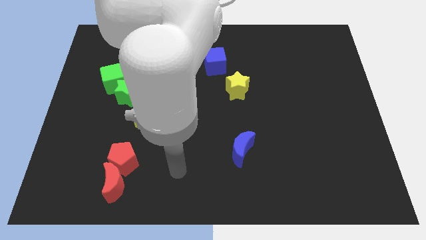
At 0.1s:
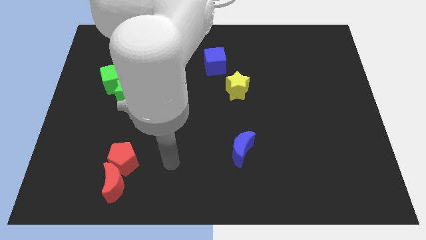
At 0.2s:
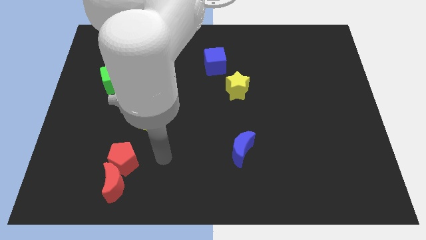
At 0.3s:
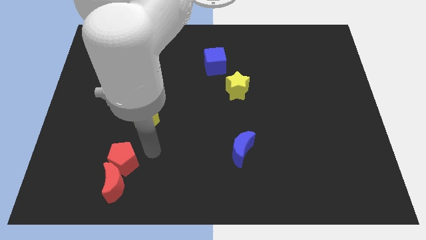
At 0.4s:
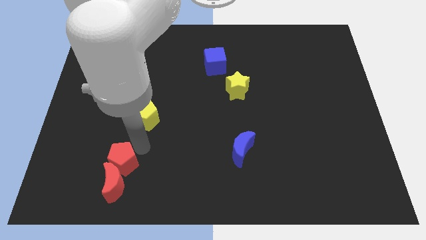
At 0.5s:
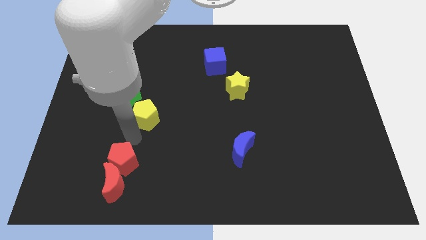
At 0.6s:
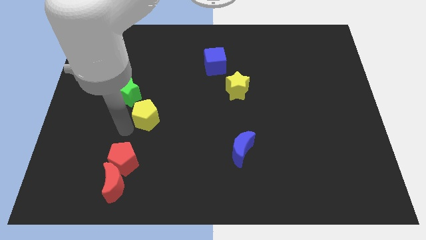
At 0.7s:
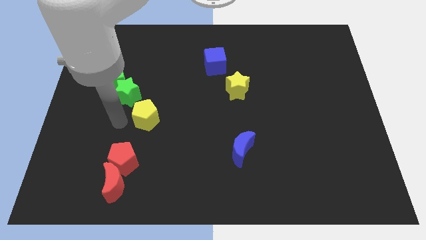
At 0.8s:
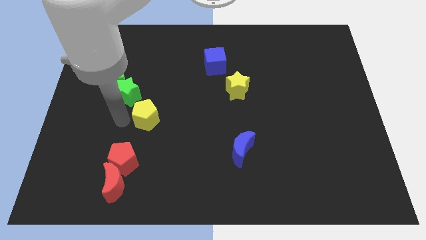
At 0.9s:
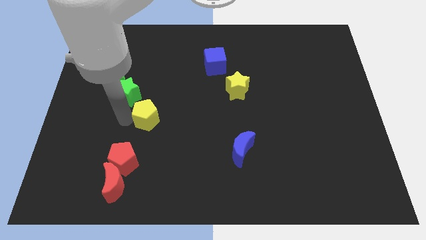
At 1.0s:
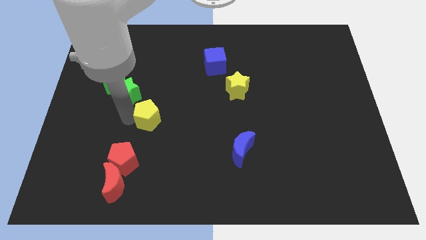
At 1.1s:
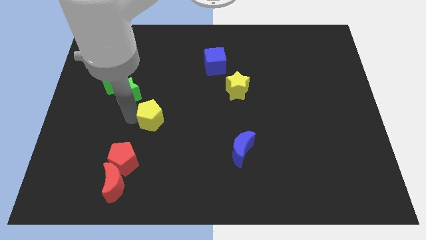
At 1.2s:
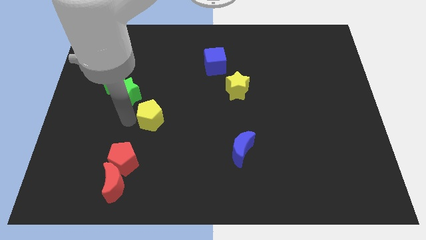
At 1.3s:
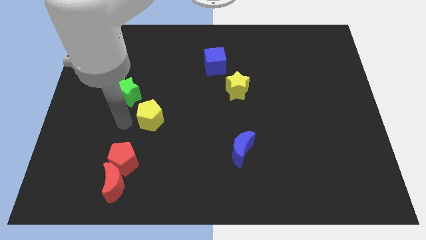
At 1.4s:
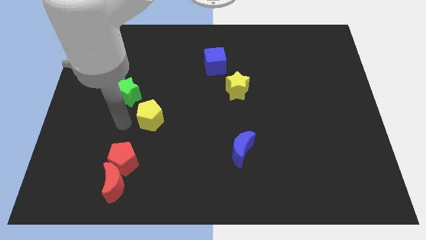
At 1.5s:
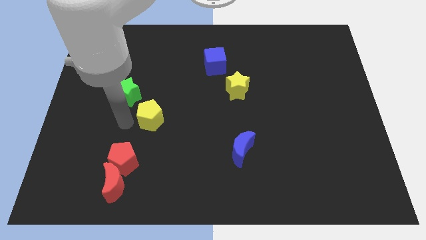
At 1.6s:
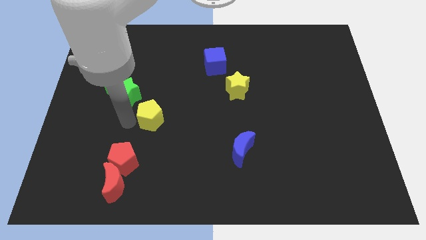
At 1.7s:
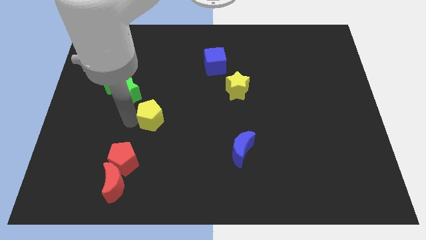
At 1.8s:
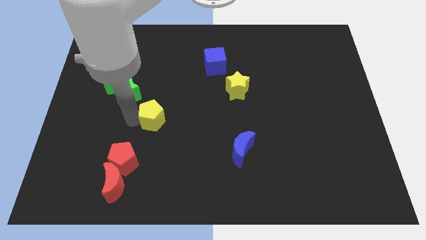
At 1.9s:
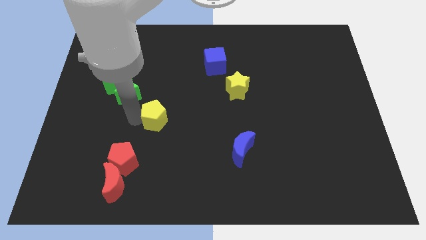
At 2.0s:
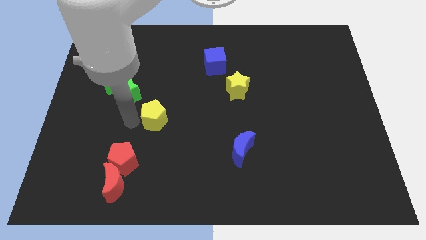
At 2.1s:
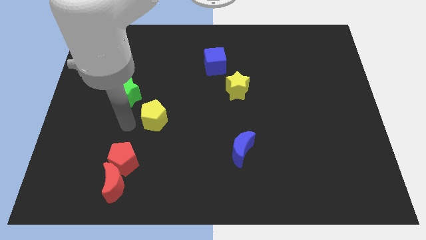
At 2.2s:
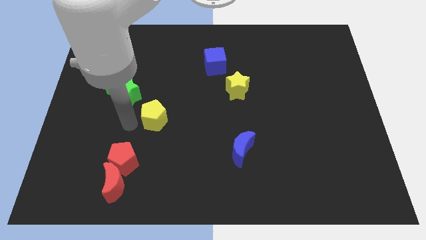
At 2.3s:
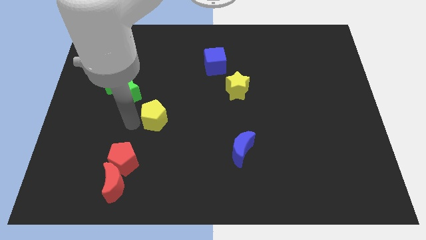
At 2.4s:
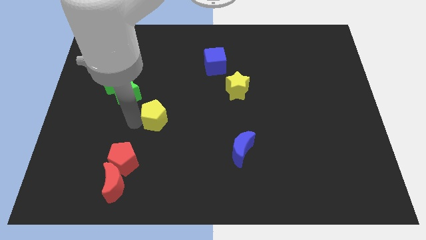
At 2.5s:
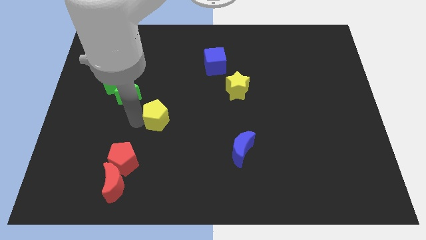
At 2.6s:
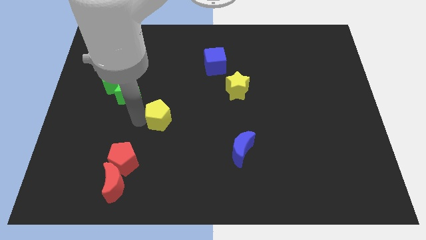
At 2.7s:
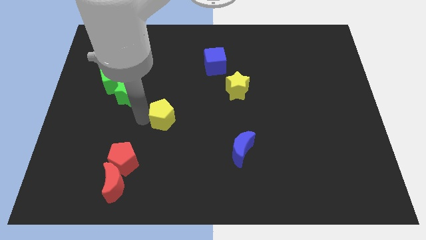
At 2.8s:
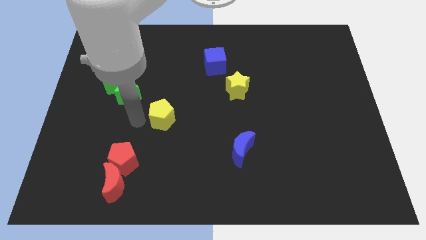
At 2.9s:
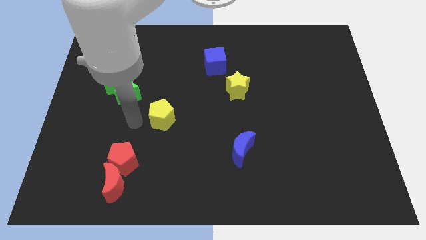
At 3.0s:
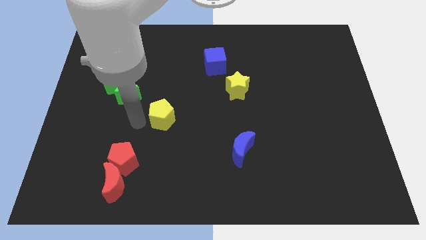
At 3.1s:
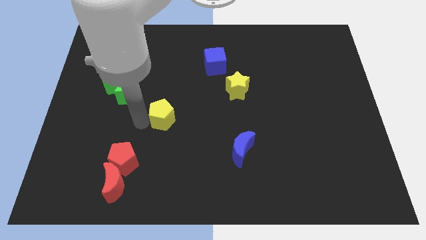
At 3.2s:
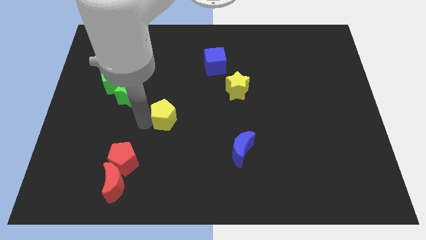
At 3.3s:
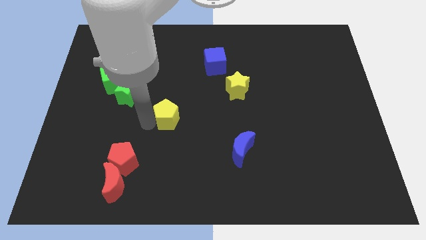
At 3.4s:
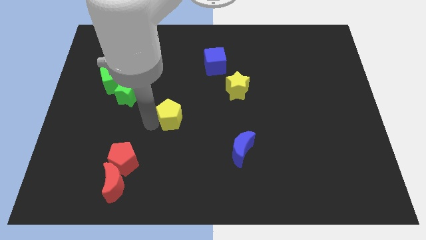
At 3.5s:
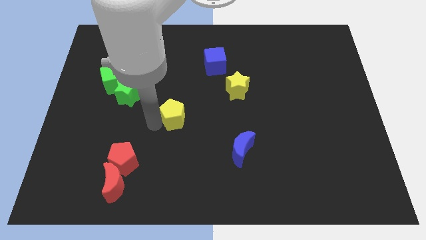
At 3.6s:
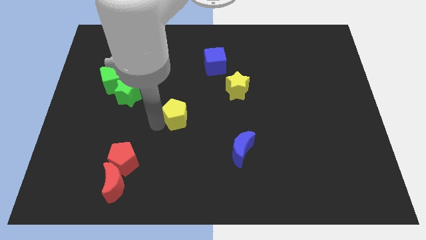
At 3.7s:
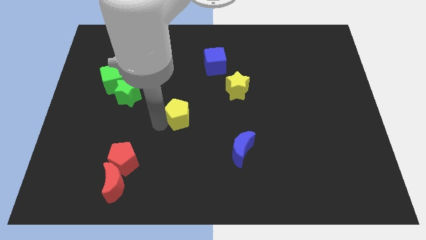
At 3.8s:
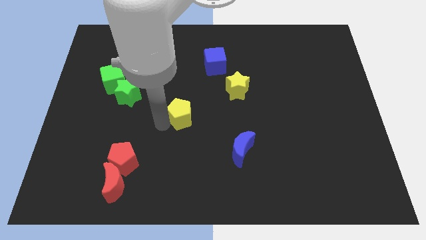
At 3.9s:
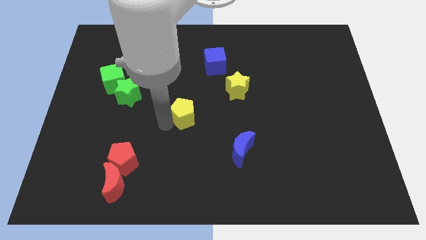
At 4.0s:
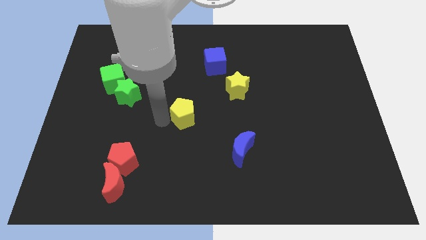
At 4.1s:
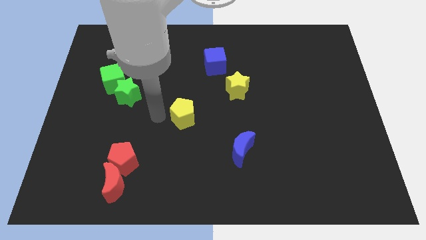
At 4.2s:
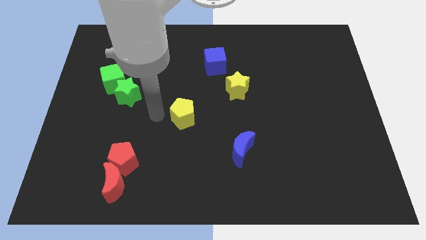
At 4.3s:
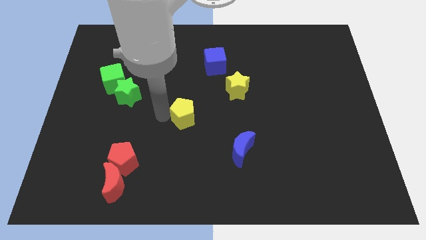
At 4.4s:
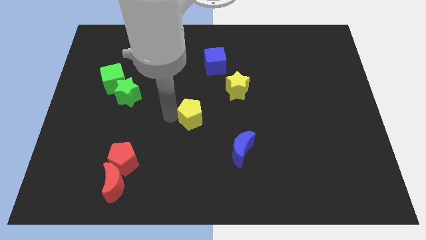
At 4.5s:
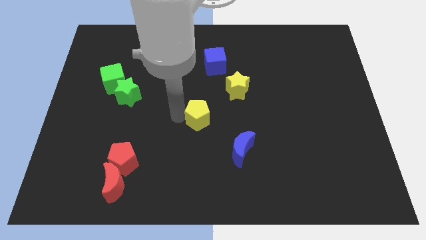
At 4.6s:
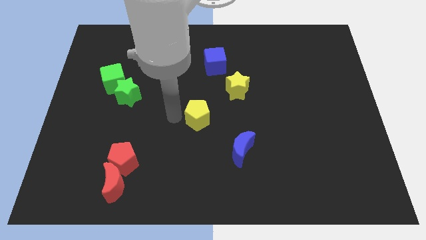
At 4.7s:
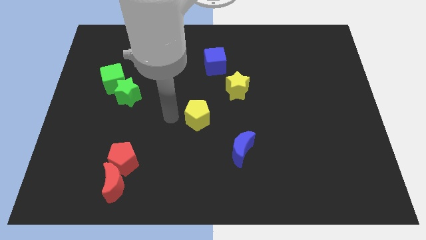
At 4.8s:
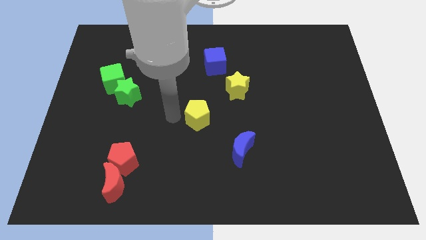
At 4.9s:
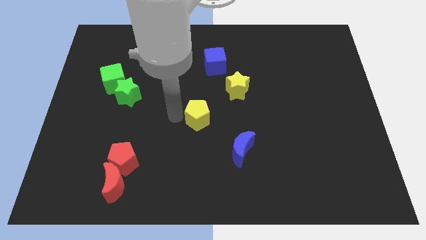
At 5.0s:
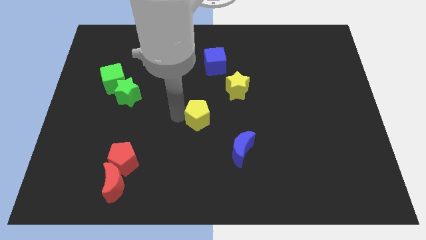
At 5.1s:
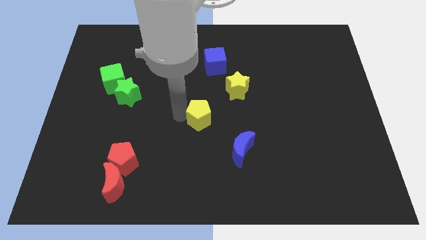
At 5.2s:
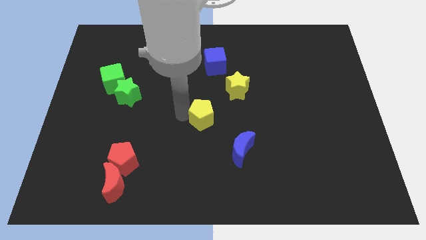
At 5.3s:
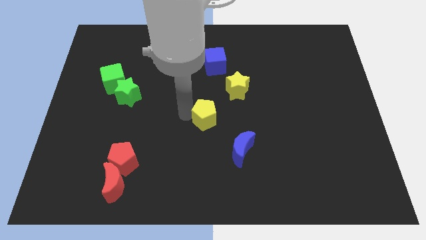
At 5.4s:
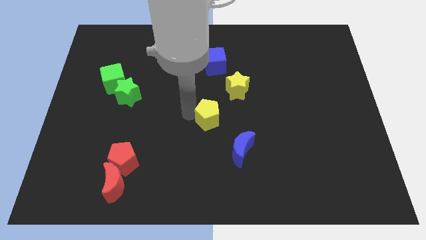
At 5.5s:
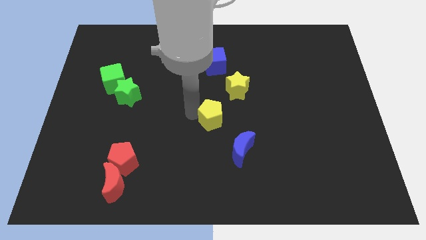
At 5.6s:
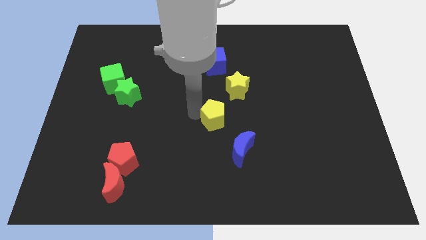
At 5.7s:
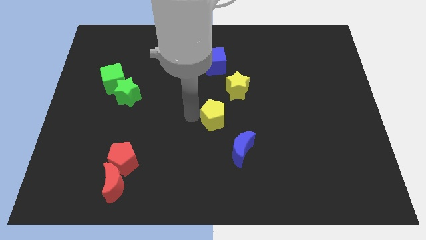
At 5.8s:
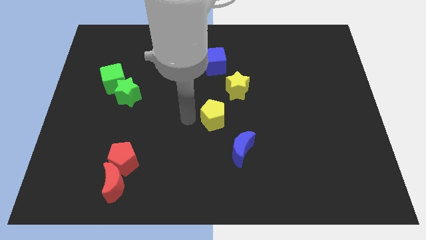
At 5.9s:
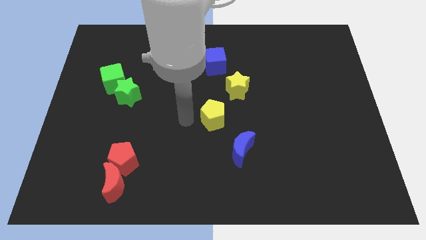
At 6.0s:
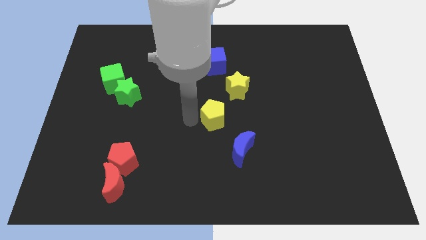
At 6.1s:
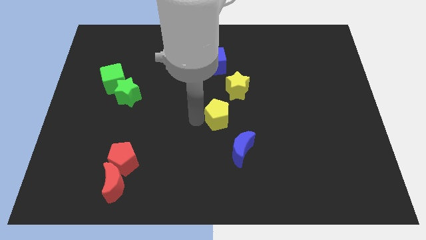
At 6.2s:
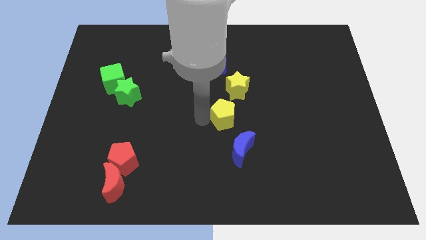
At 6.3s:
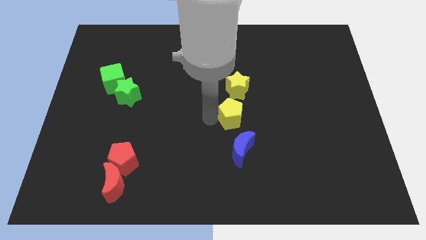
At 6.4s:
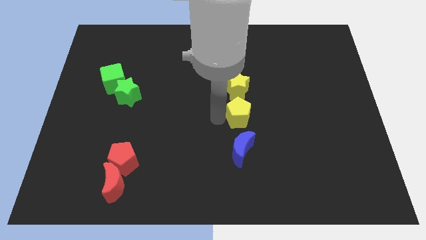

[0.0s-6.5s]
push the yellow pentagon to the right

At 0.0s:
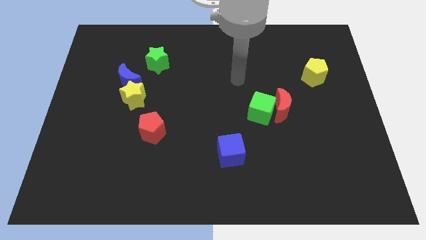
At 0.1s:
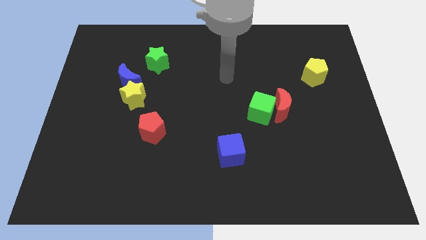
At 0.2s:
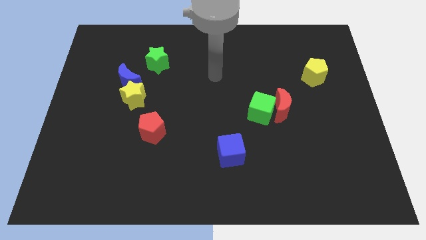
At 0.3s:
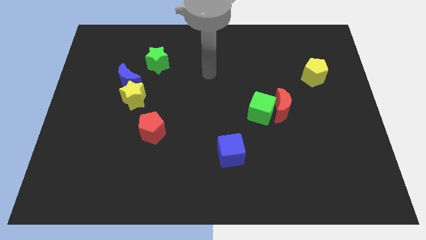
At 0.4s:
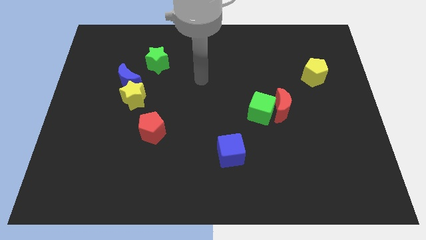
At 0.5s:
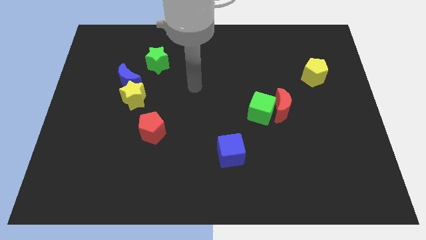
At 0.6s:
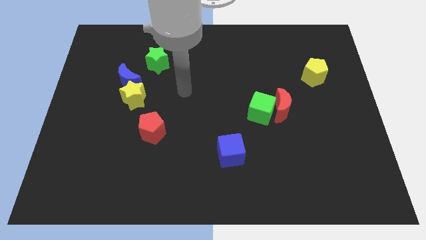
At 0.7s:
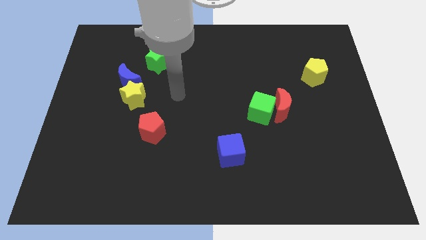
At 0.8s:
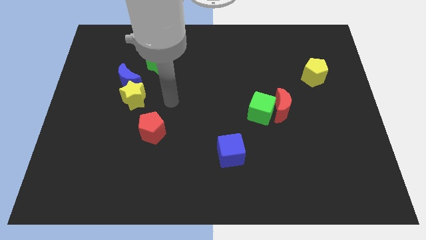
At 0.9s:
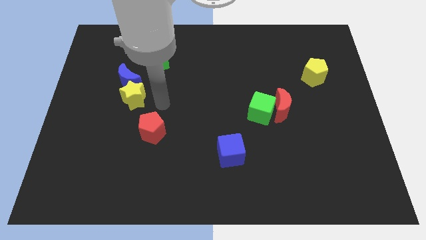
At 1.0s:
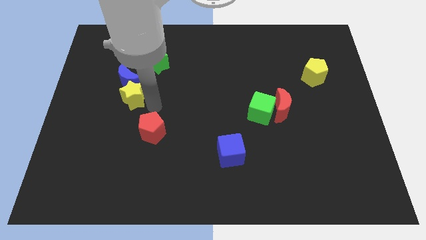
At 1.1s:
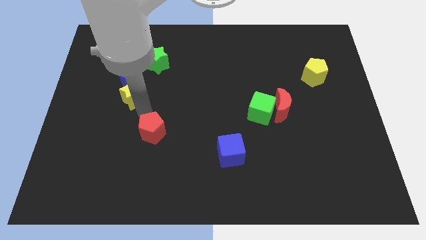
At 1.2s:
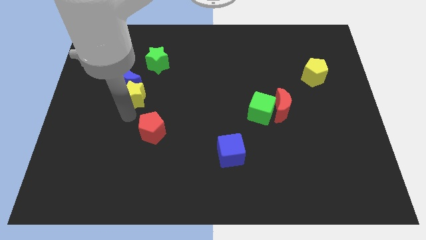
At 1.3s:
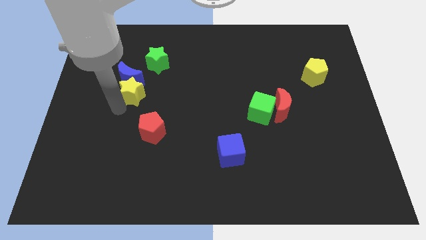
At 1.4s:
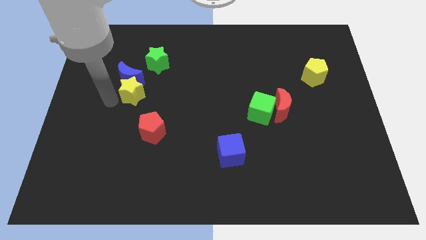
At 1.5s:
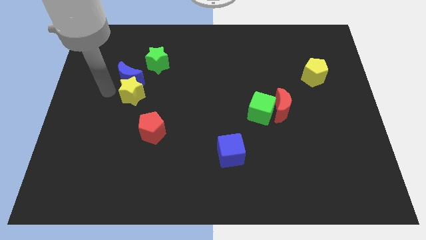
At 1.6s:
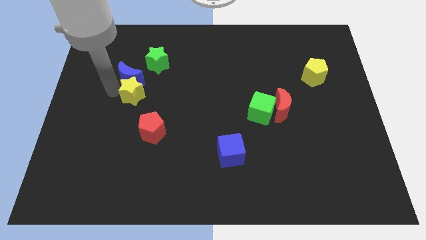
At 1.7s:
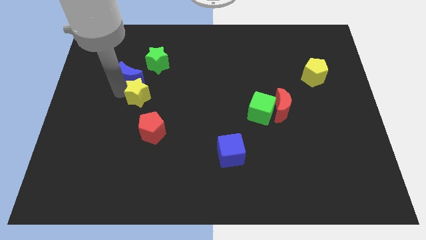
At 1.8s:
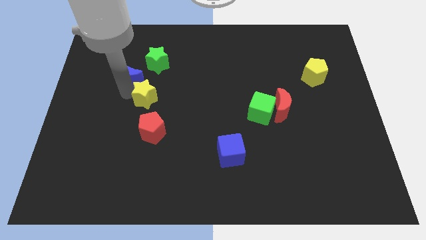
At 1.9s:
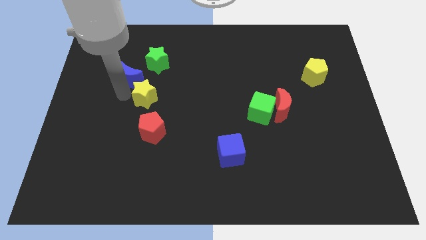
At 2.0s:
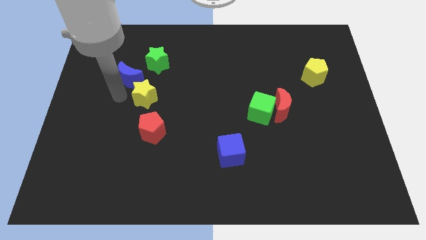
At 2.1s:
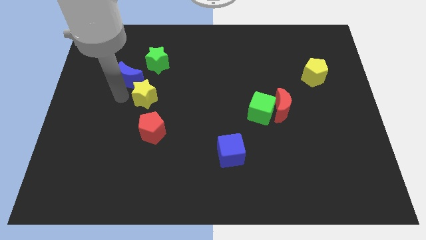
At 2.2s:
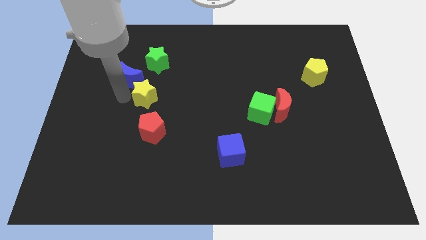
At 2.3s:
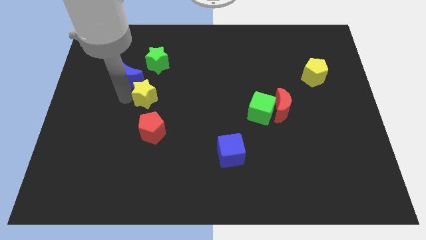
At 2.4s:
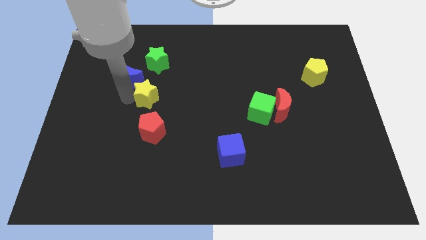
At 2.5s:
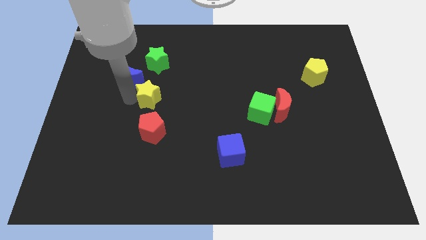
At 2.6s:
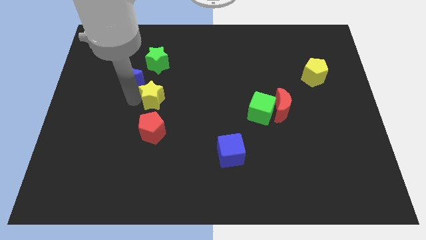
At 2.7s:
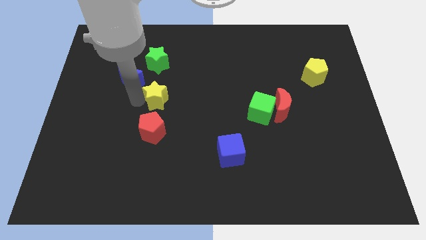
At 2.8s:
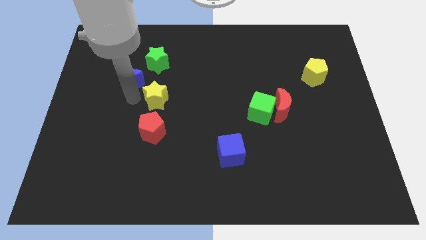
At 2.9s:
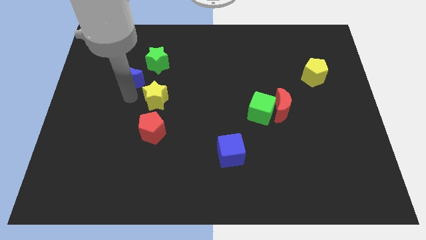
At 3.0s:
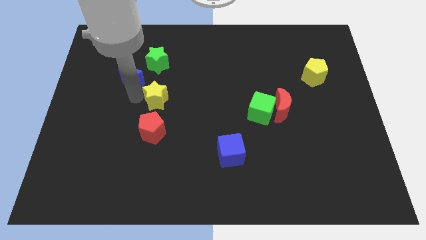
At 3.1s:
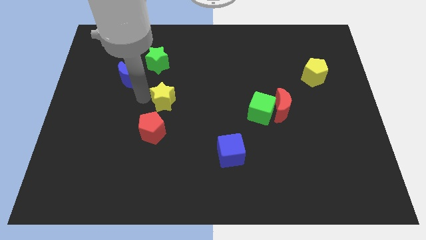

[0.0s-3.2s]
slightly push the yellow star to the right
